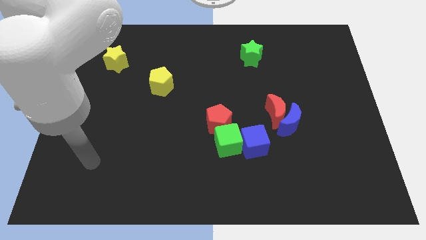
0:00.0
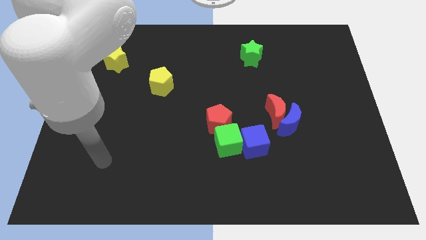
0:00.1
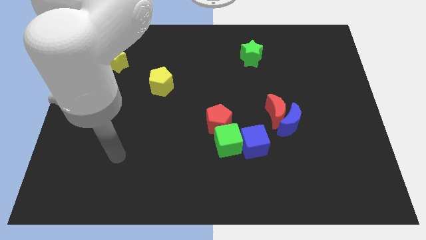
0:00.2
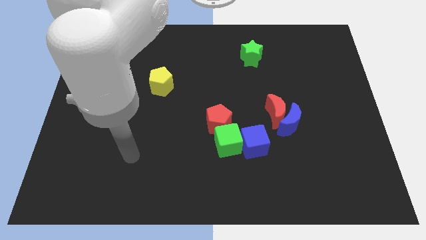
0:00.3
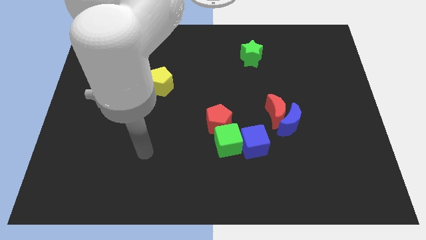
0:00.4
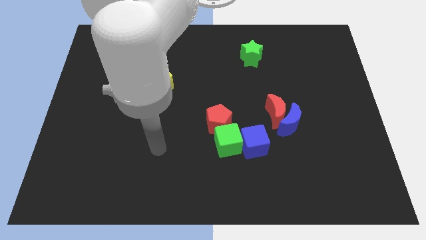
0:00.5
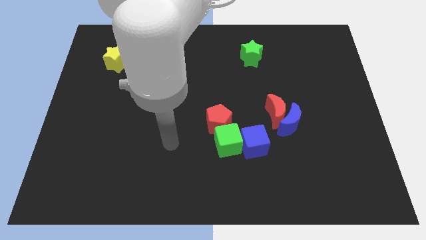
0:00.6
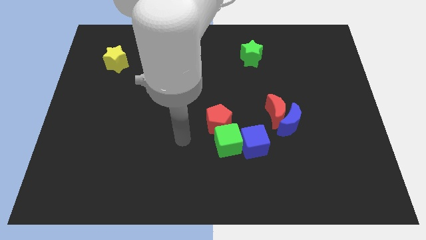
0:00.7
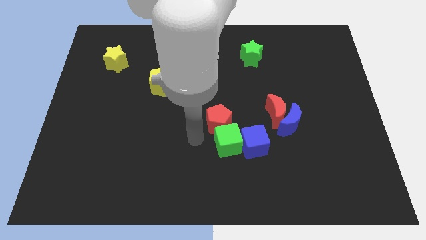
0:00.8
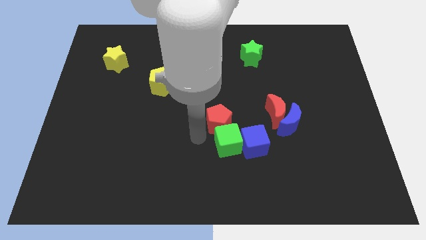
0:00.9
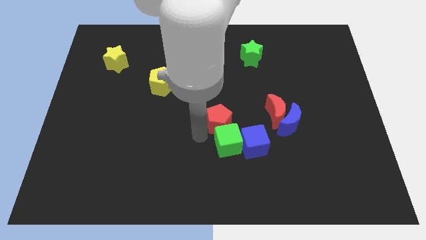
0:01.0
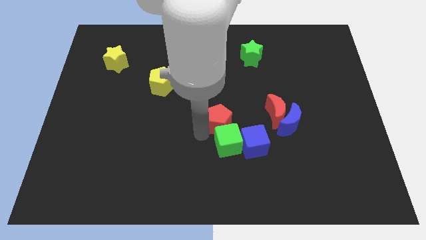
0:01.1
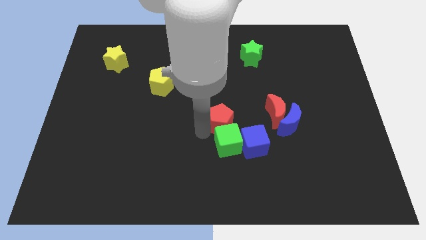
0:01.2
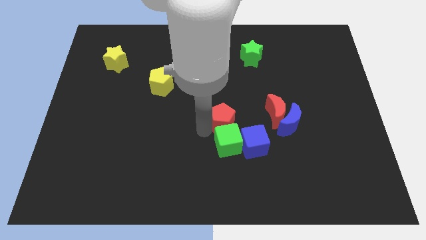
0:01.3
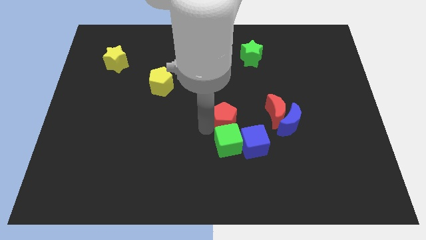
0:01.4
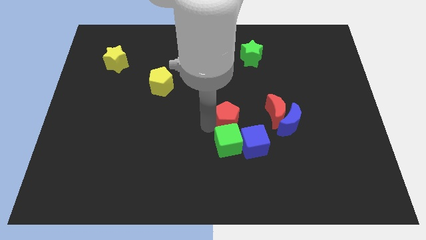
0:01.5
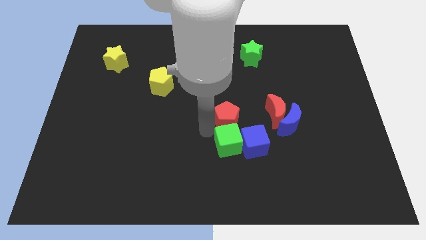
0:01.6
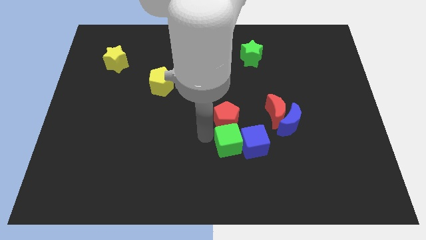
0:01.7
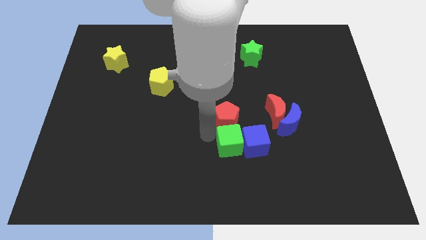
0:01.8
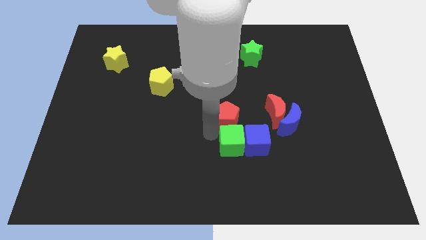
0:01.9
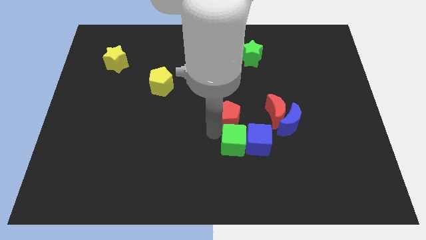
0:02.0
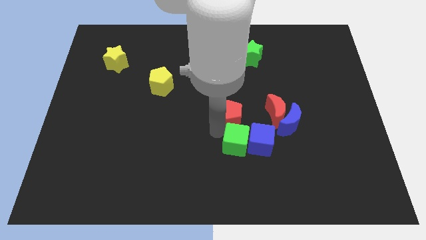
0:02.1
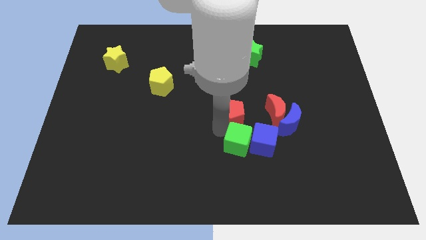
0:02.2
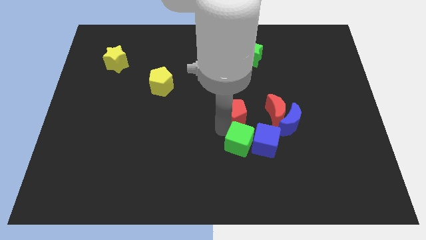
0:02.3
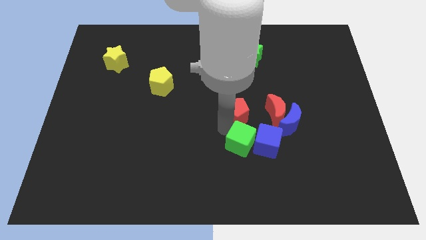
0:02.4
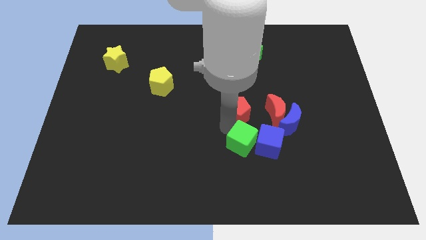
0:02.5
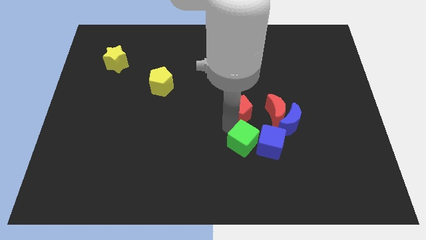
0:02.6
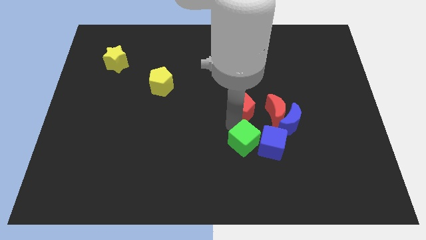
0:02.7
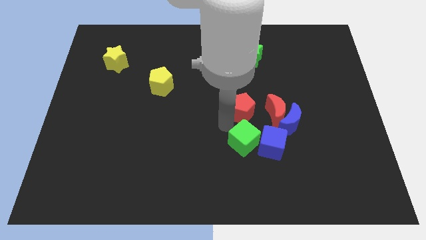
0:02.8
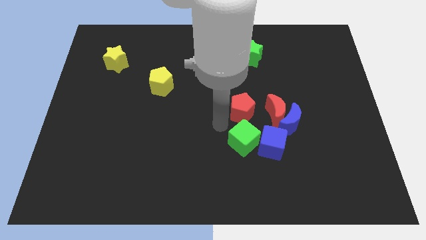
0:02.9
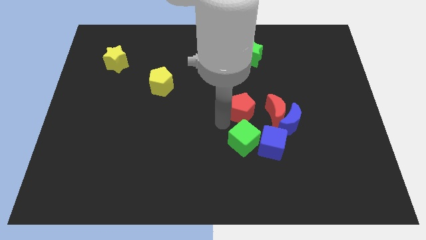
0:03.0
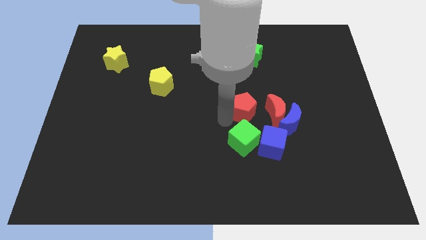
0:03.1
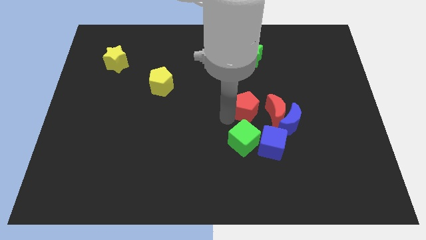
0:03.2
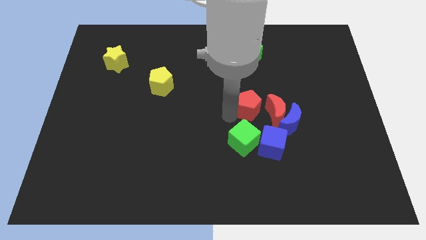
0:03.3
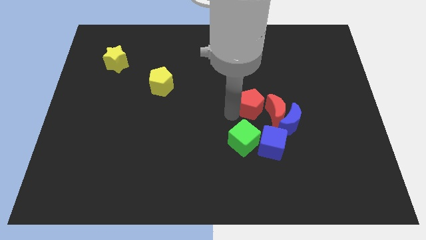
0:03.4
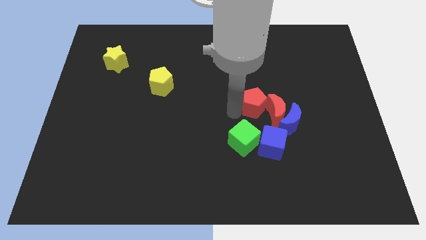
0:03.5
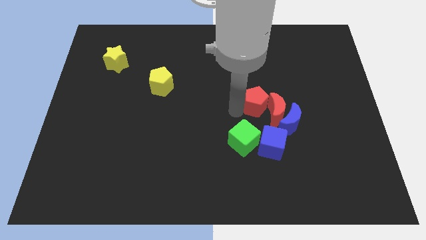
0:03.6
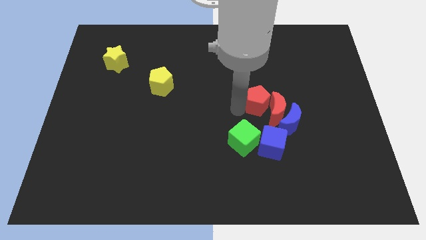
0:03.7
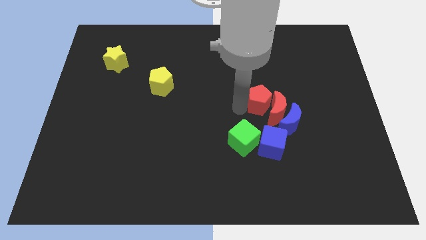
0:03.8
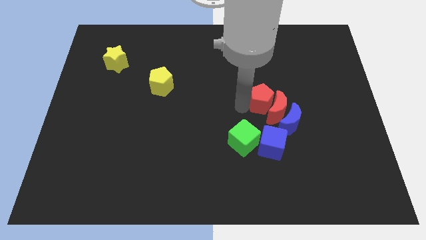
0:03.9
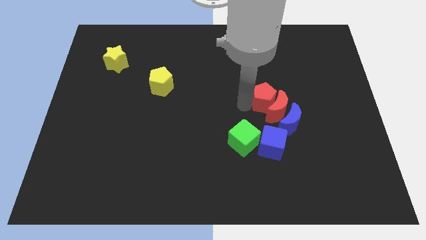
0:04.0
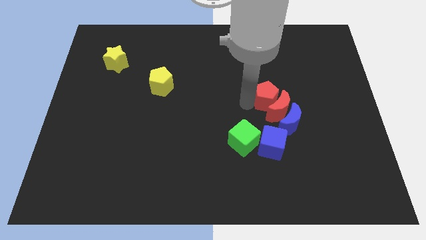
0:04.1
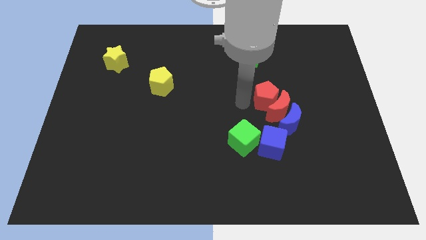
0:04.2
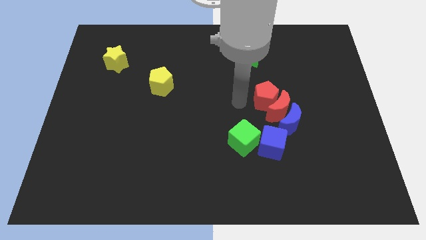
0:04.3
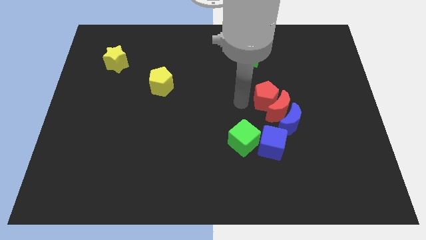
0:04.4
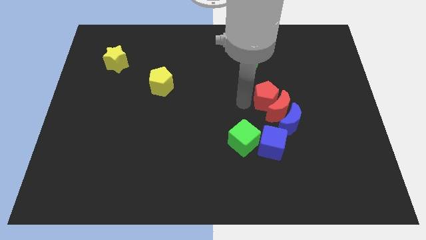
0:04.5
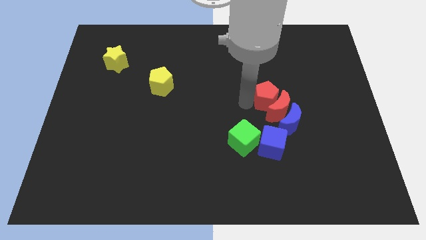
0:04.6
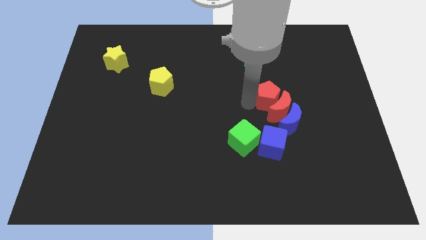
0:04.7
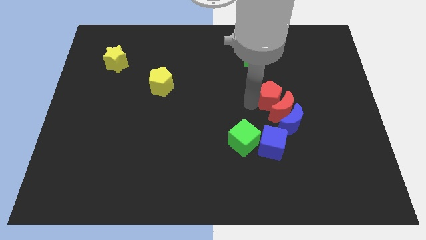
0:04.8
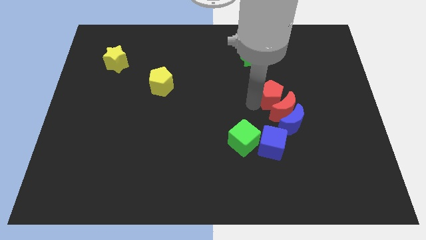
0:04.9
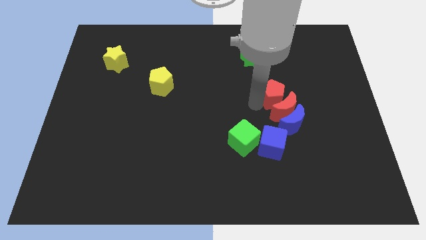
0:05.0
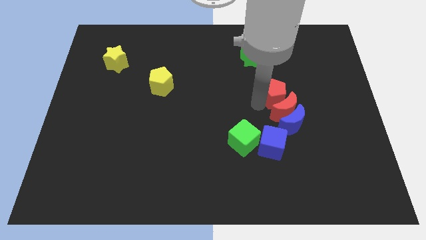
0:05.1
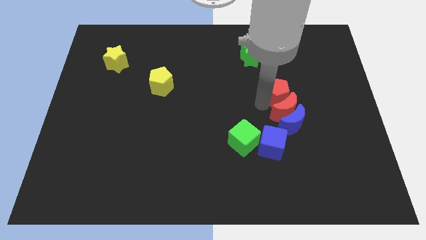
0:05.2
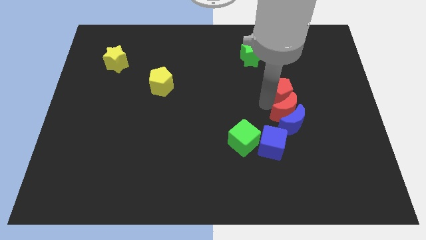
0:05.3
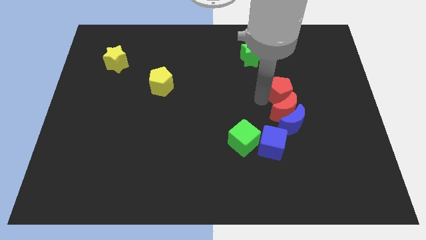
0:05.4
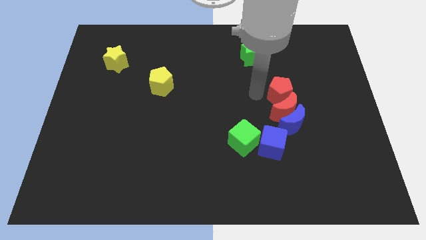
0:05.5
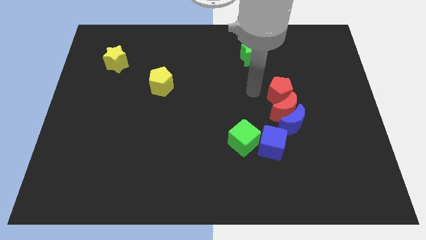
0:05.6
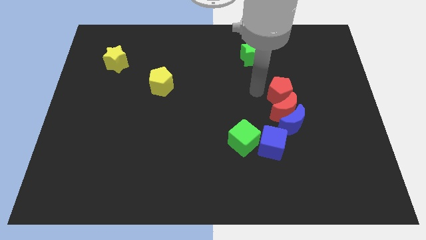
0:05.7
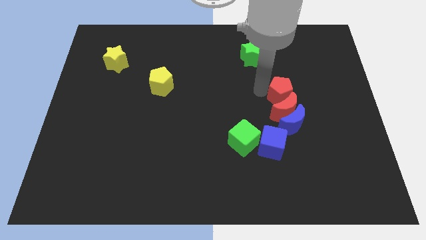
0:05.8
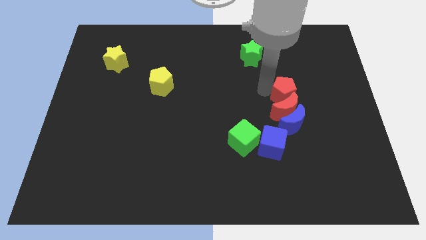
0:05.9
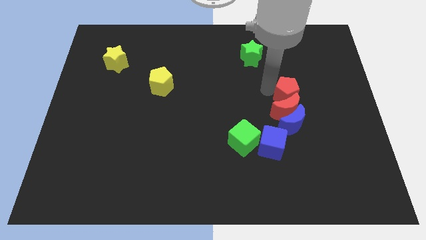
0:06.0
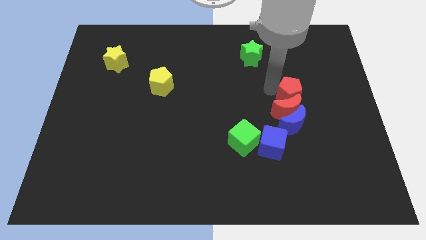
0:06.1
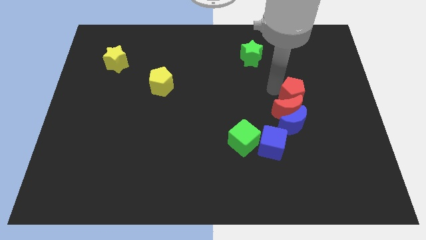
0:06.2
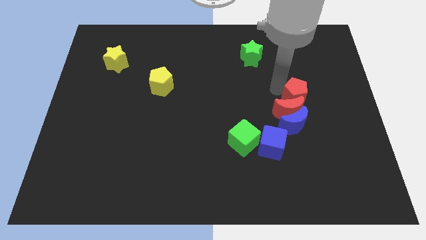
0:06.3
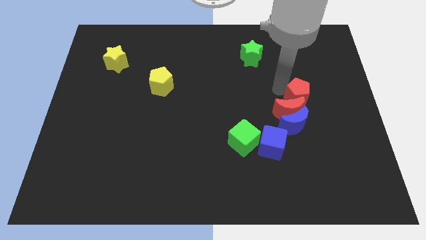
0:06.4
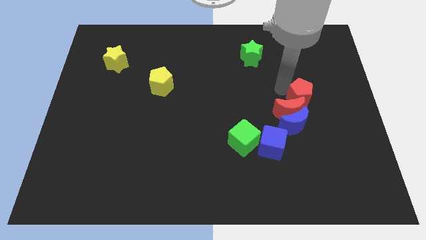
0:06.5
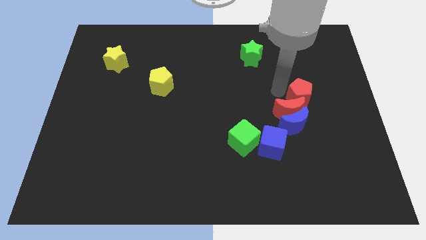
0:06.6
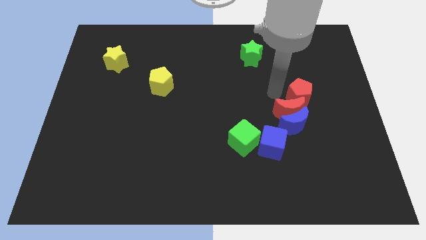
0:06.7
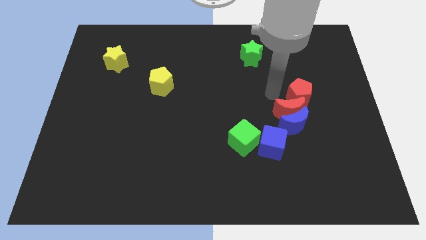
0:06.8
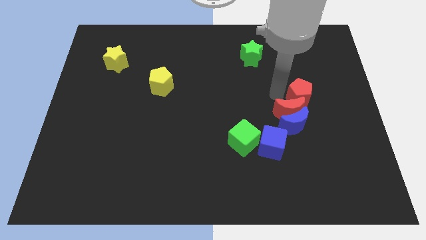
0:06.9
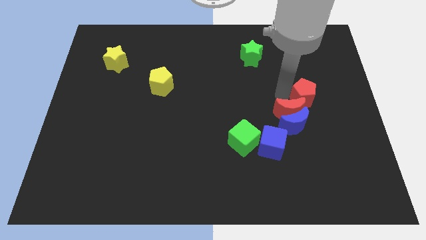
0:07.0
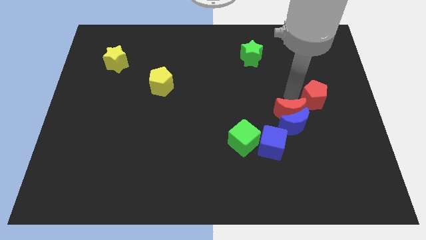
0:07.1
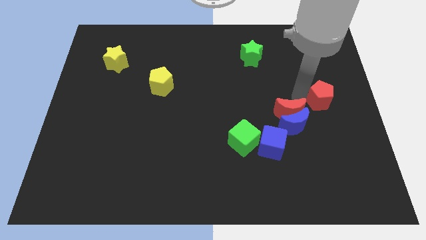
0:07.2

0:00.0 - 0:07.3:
move the red pentagon to the center right
